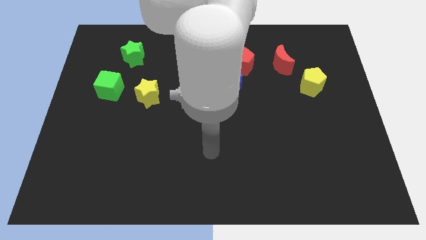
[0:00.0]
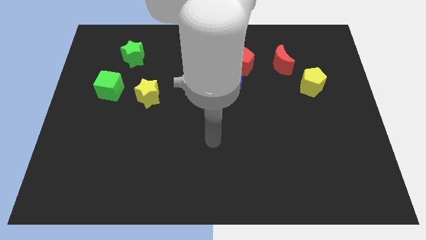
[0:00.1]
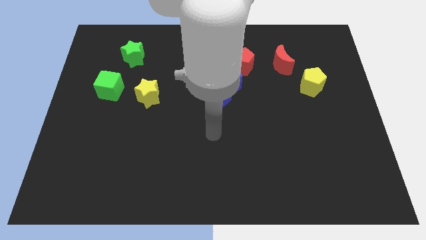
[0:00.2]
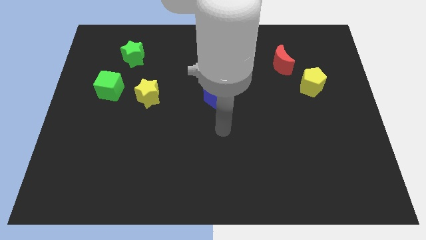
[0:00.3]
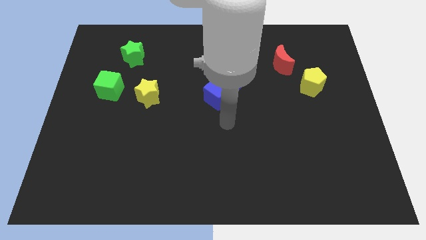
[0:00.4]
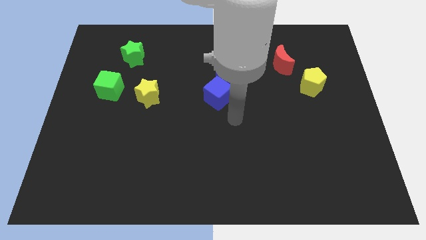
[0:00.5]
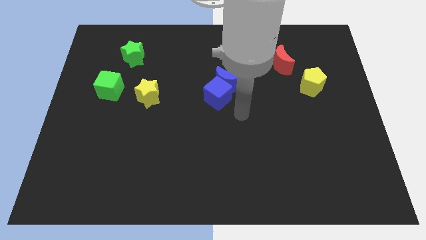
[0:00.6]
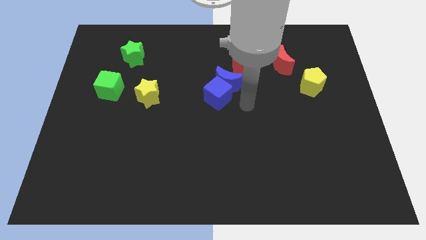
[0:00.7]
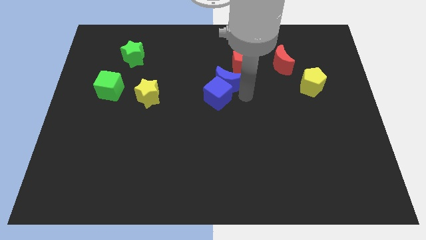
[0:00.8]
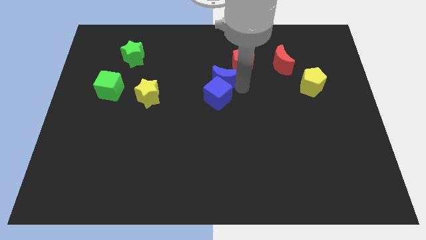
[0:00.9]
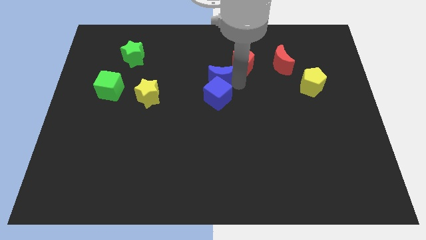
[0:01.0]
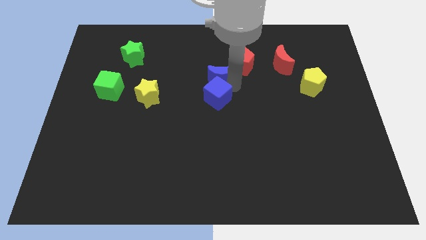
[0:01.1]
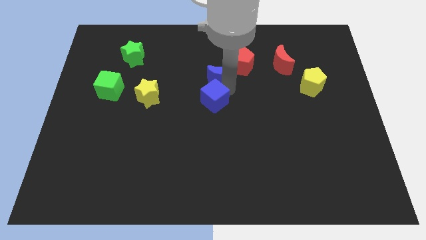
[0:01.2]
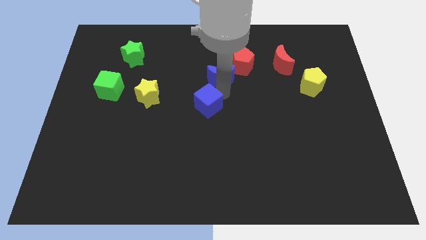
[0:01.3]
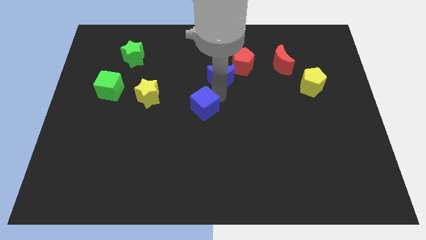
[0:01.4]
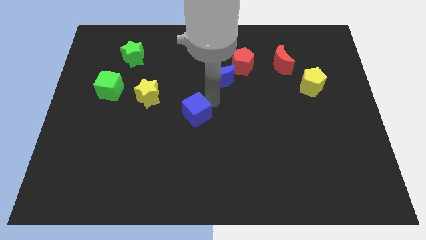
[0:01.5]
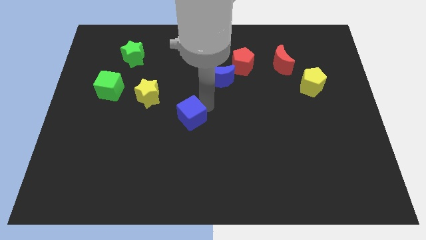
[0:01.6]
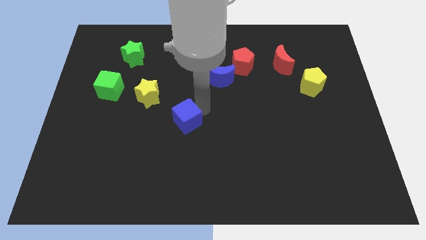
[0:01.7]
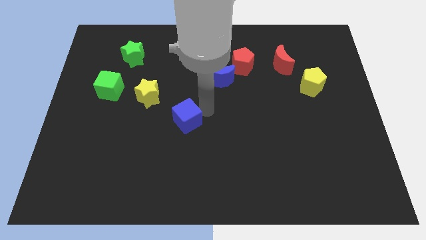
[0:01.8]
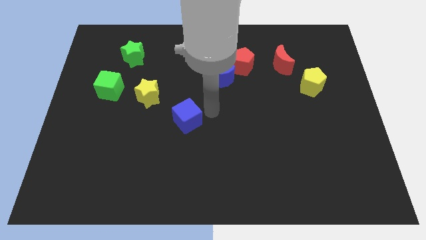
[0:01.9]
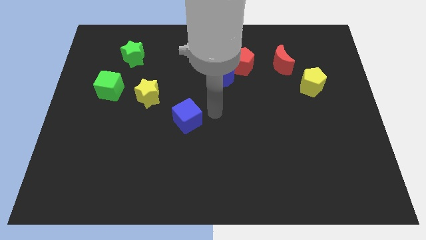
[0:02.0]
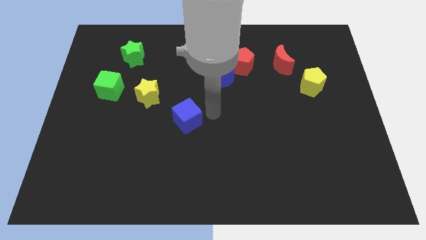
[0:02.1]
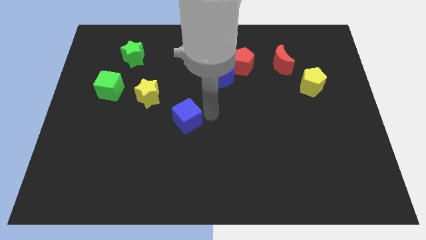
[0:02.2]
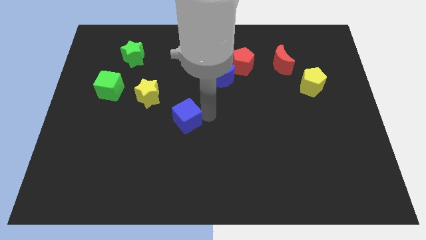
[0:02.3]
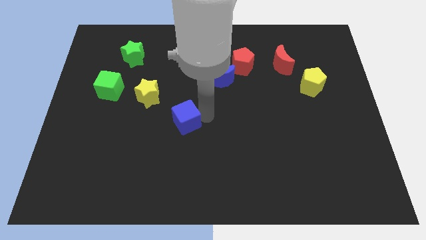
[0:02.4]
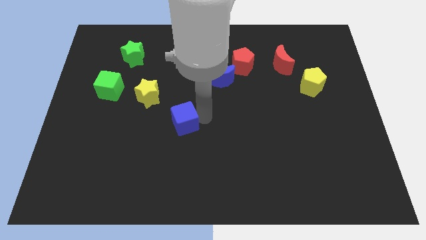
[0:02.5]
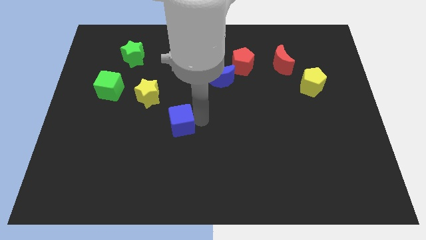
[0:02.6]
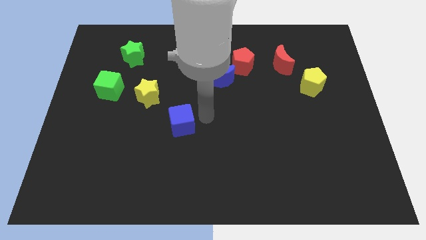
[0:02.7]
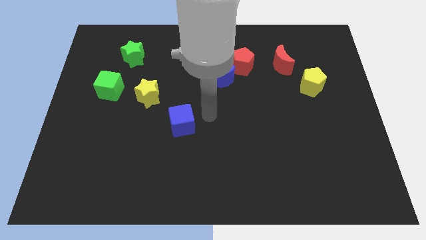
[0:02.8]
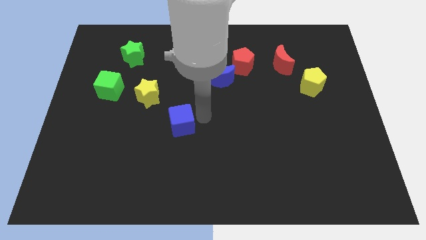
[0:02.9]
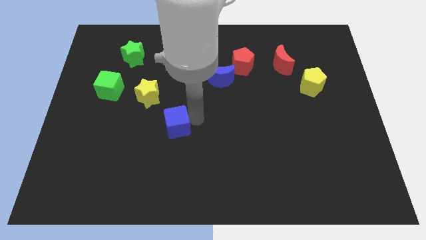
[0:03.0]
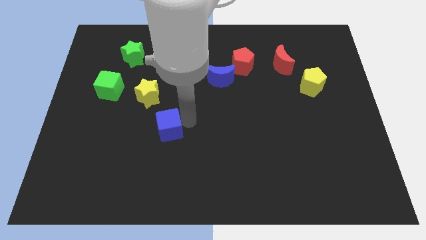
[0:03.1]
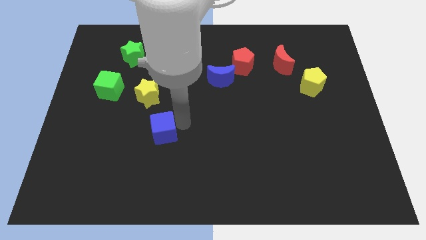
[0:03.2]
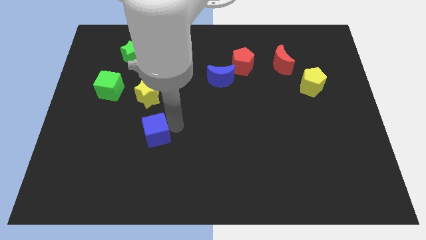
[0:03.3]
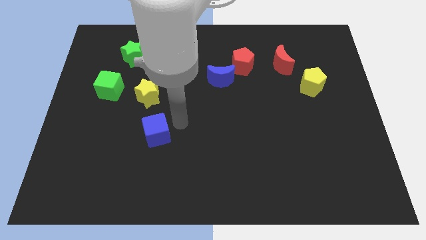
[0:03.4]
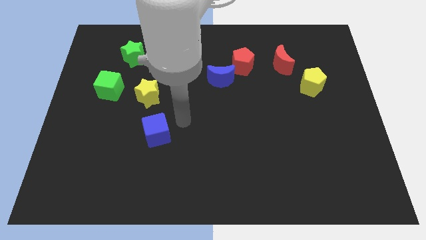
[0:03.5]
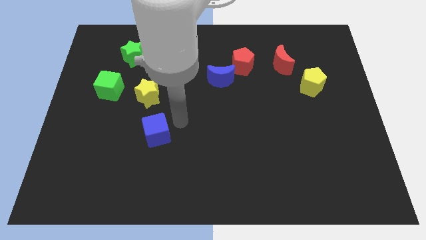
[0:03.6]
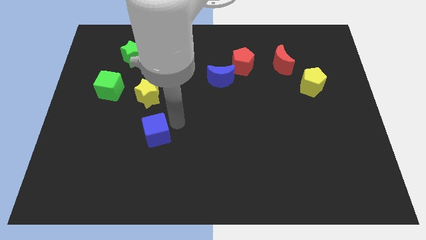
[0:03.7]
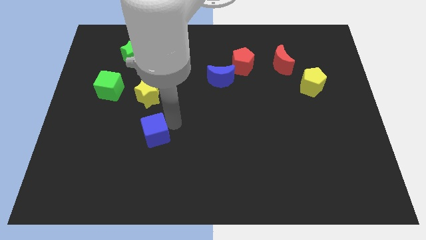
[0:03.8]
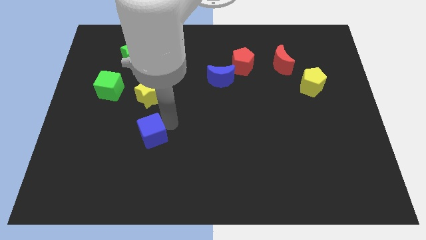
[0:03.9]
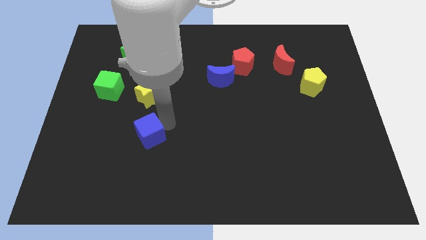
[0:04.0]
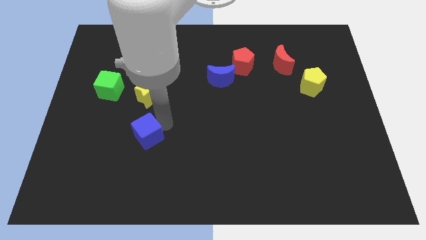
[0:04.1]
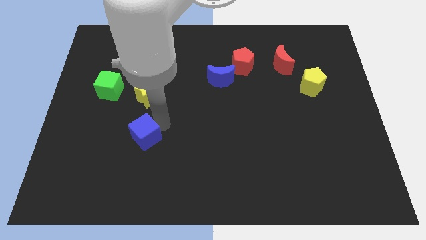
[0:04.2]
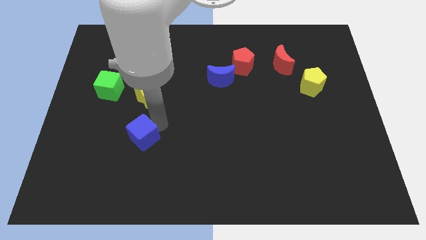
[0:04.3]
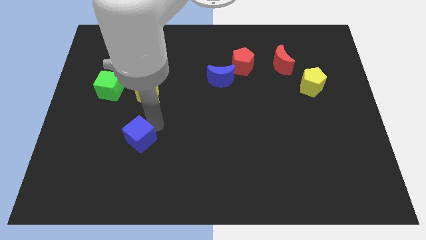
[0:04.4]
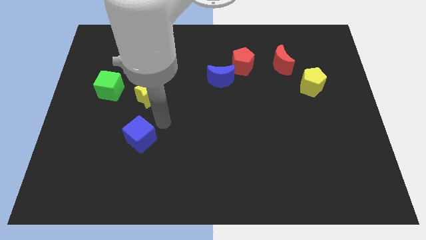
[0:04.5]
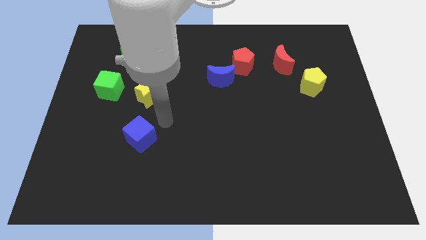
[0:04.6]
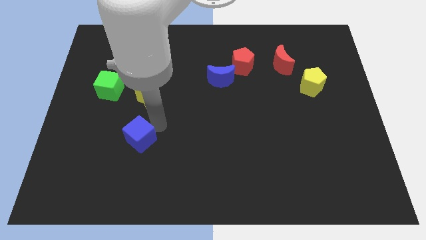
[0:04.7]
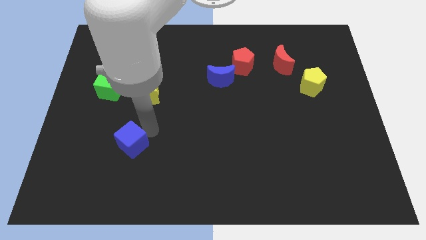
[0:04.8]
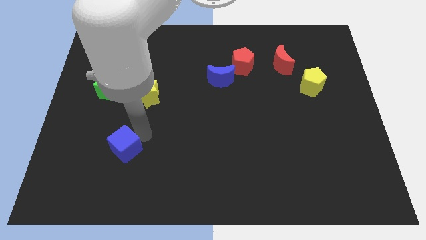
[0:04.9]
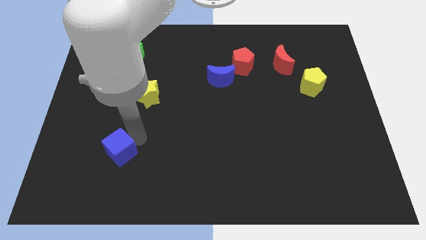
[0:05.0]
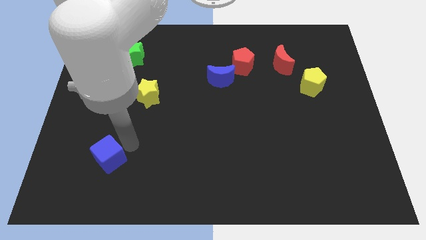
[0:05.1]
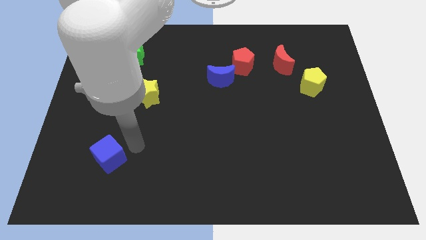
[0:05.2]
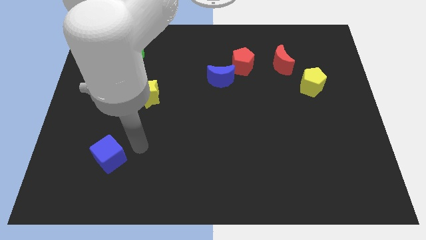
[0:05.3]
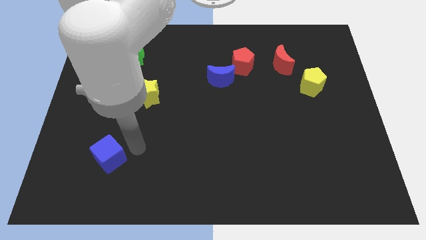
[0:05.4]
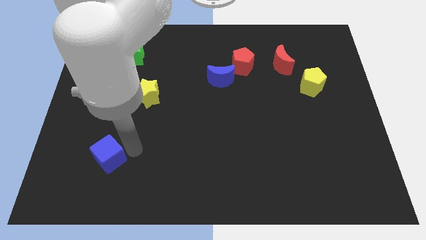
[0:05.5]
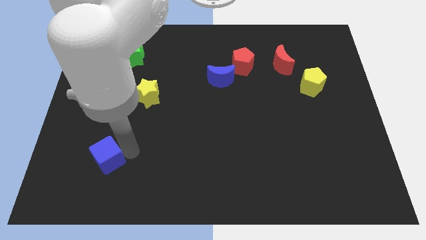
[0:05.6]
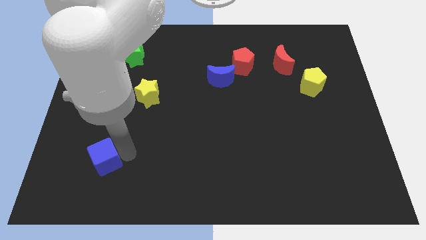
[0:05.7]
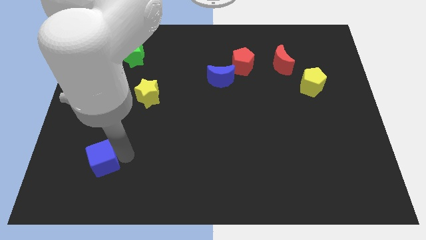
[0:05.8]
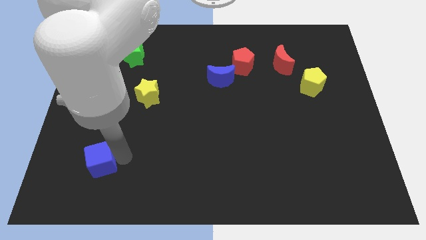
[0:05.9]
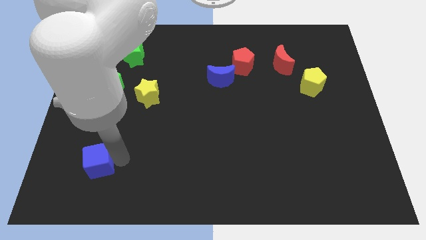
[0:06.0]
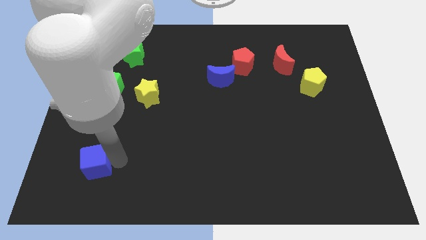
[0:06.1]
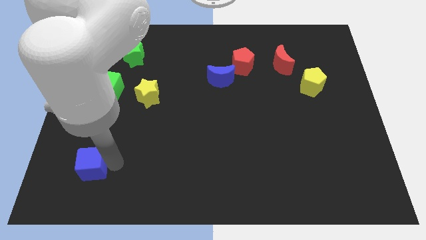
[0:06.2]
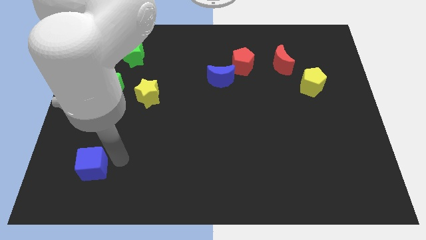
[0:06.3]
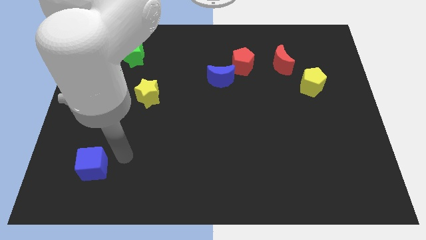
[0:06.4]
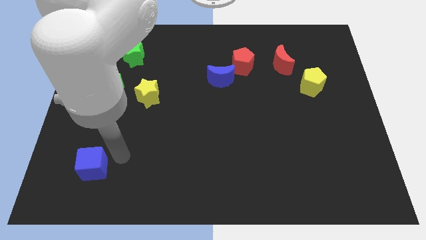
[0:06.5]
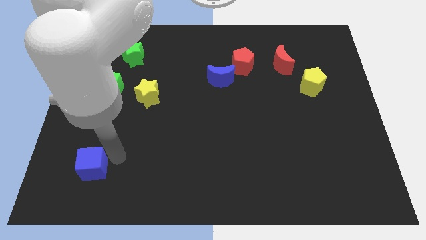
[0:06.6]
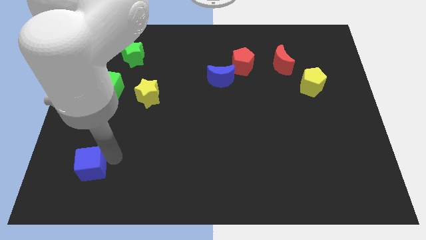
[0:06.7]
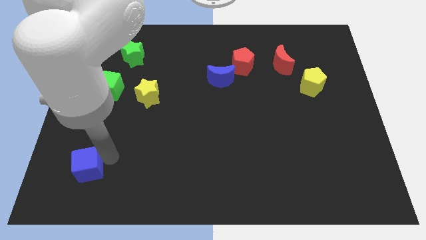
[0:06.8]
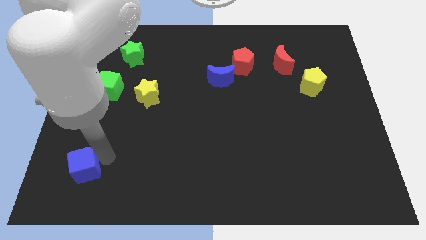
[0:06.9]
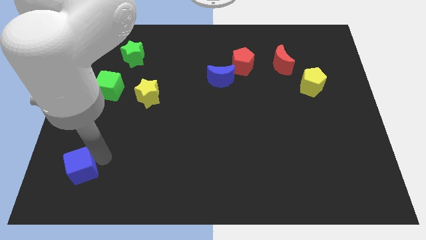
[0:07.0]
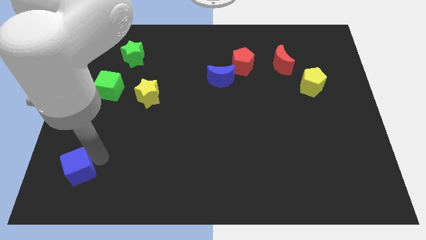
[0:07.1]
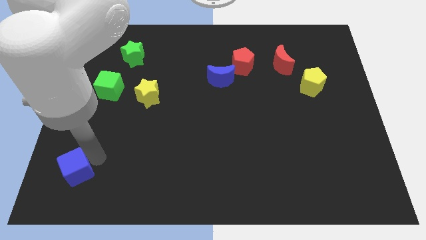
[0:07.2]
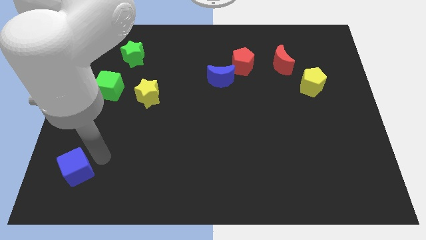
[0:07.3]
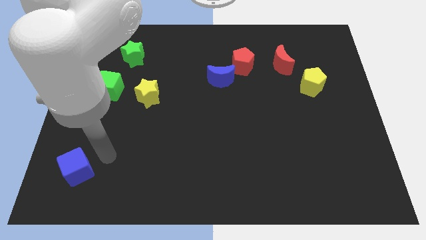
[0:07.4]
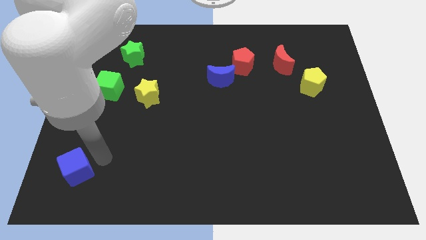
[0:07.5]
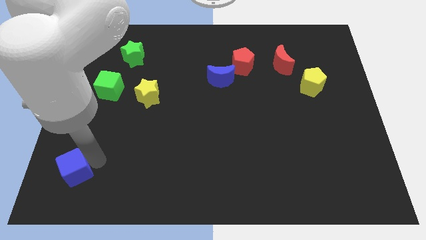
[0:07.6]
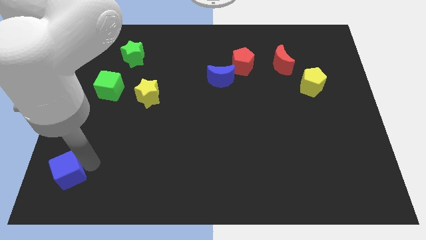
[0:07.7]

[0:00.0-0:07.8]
slide the blue cube to the bottom left corner
